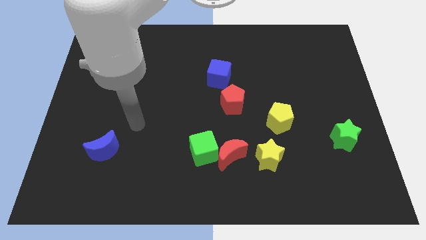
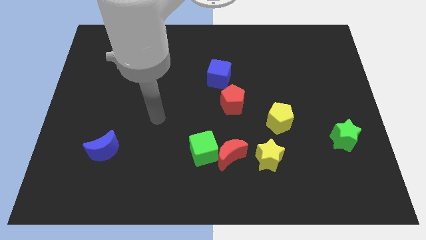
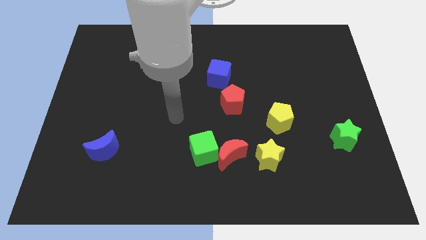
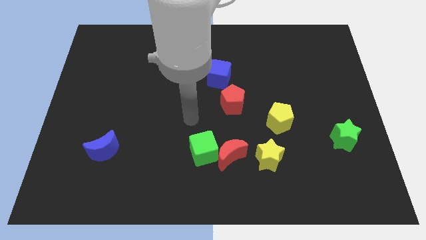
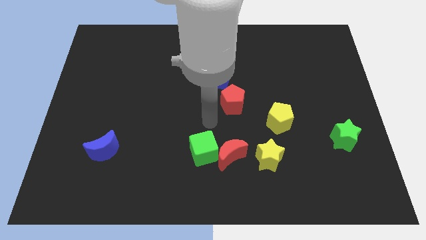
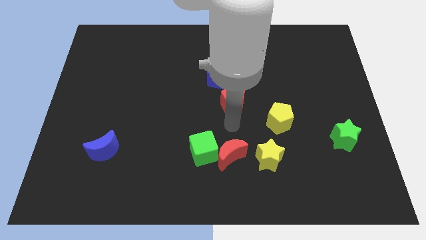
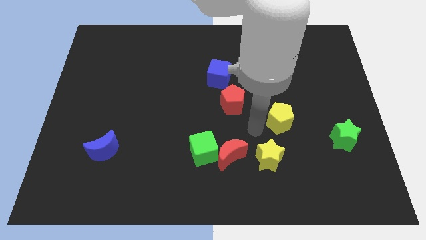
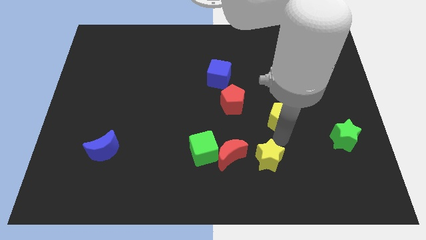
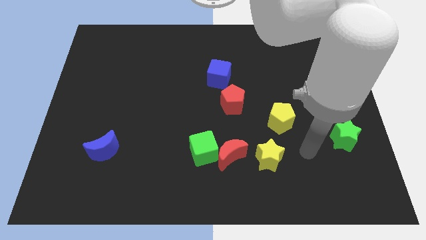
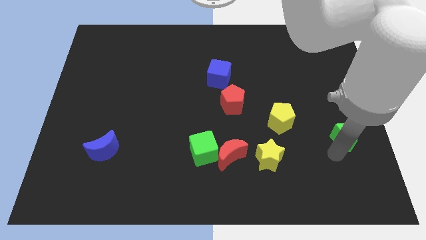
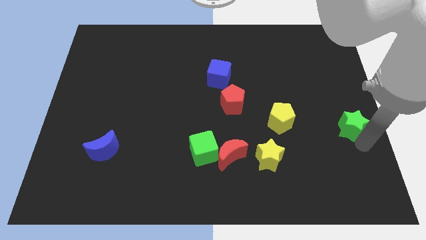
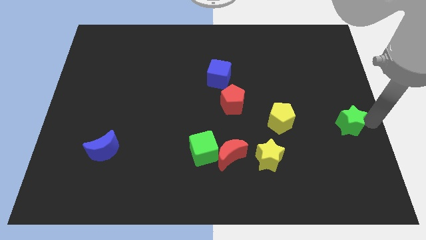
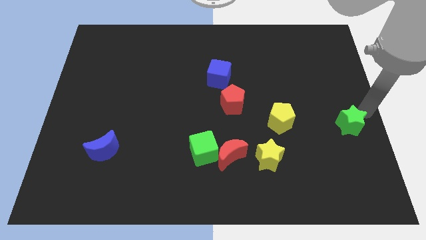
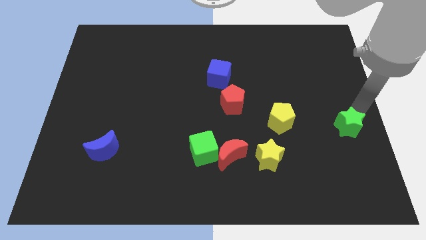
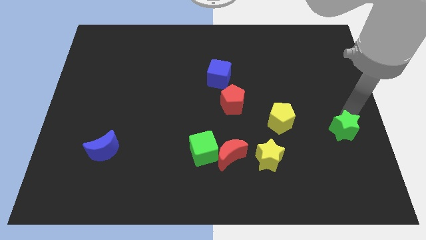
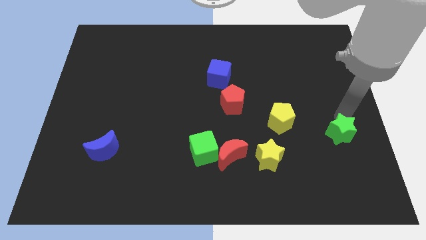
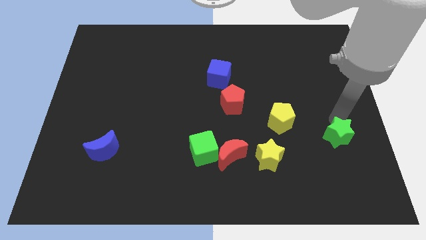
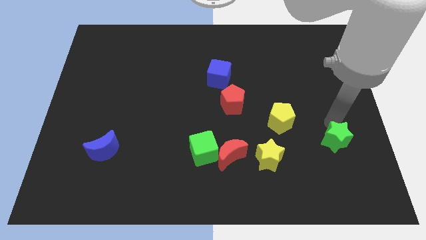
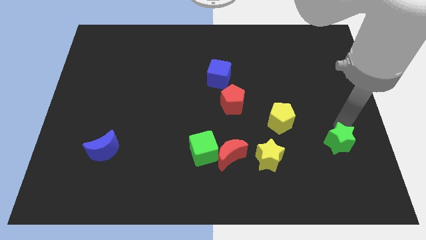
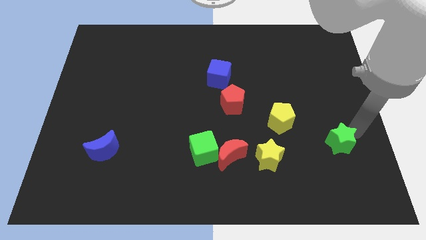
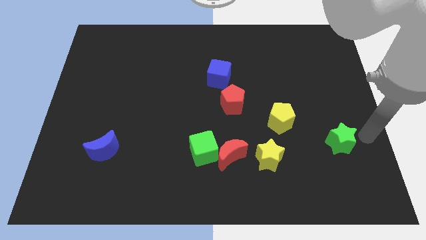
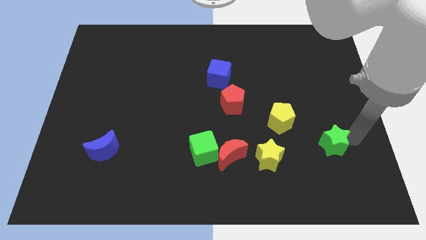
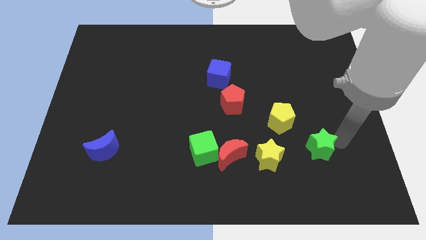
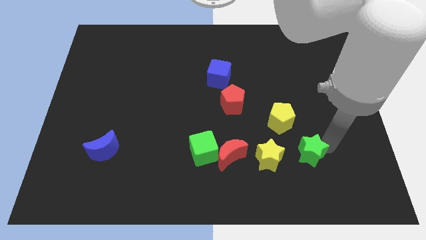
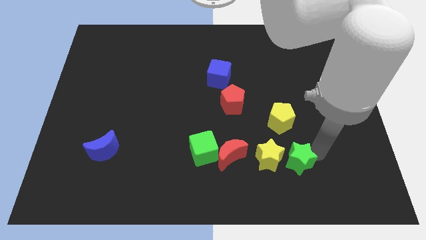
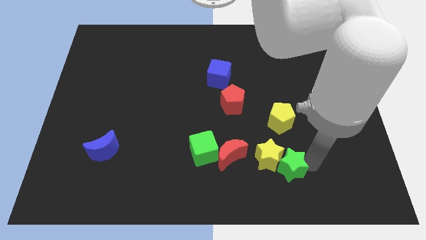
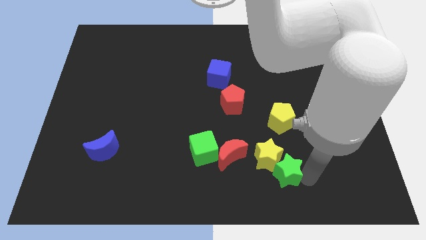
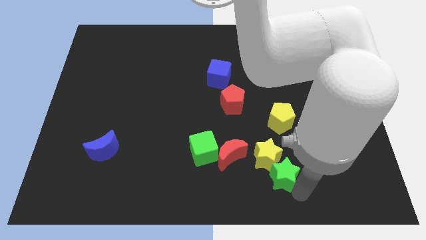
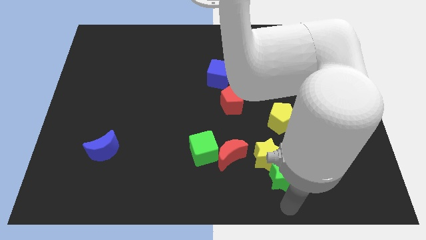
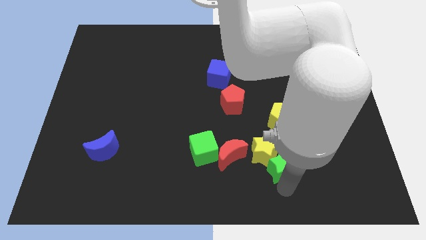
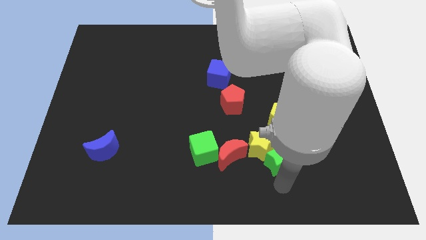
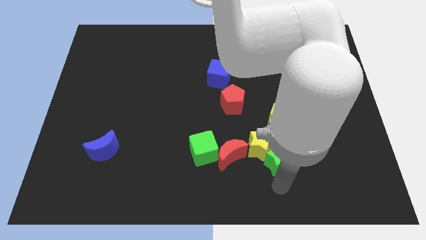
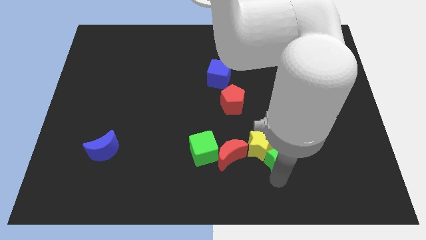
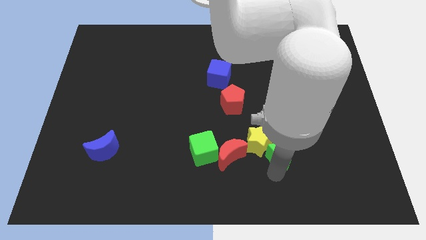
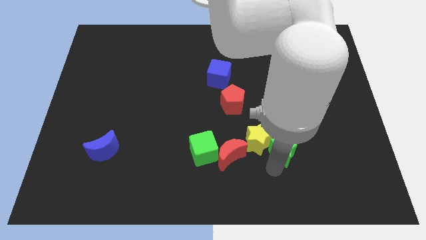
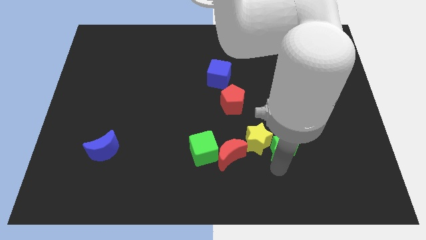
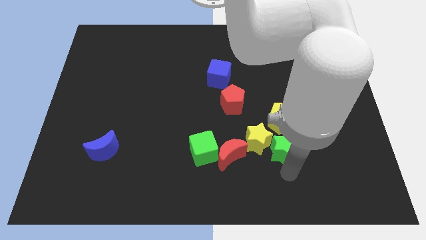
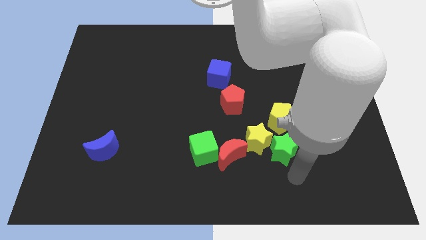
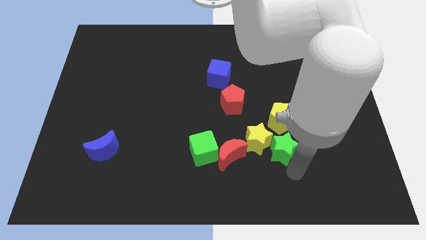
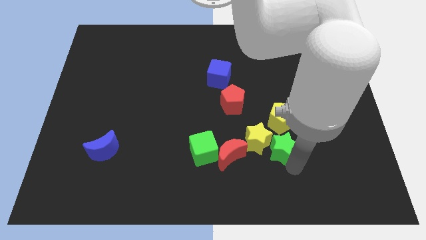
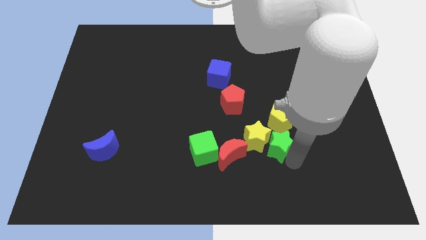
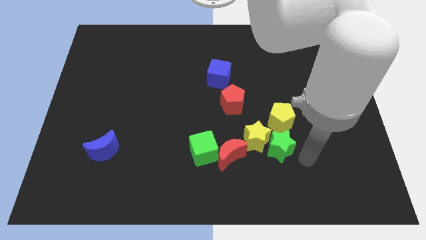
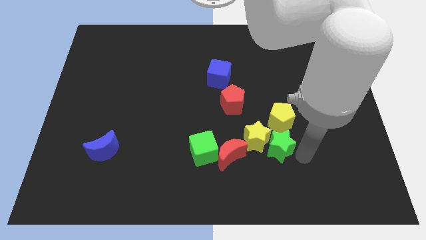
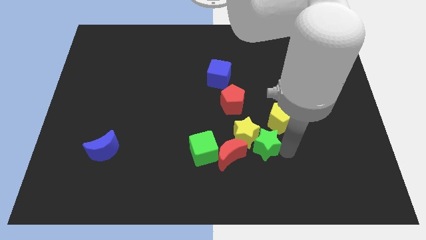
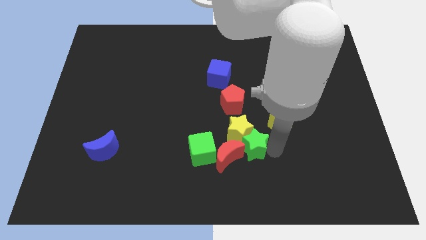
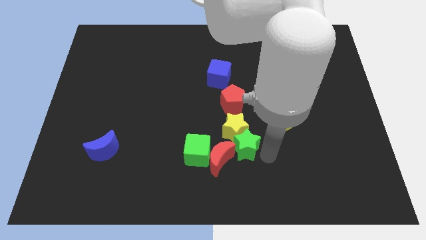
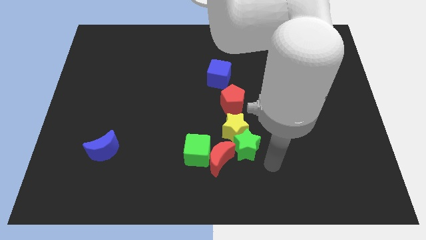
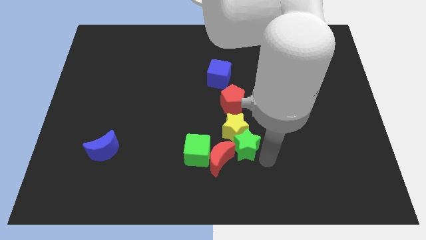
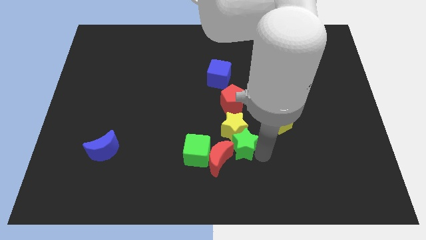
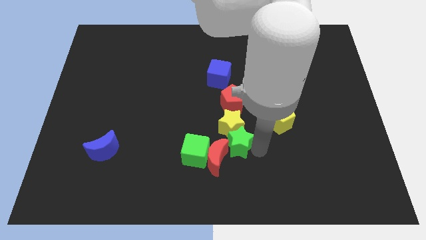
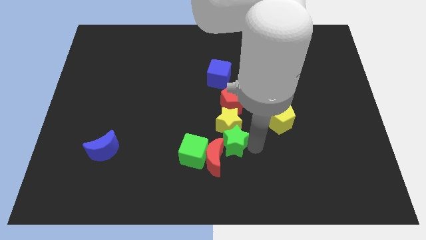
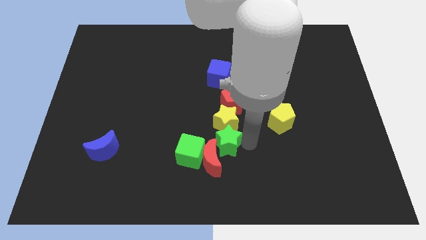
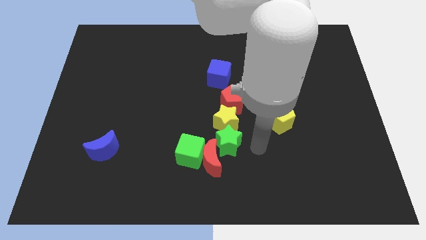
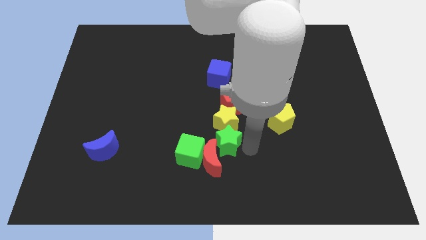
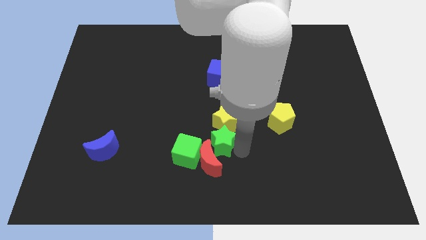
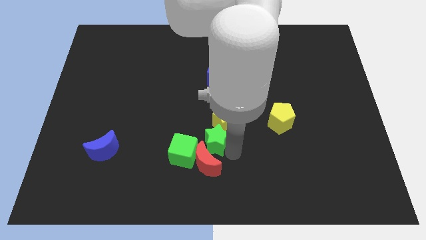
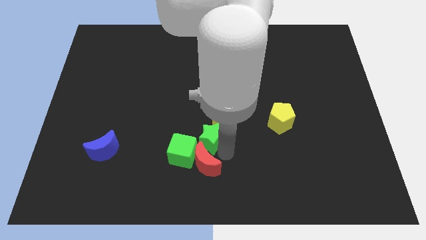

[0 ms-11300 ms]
push the green star to the top left of the red moon

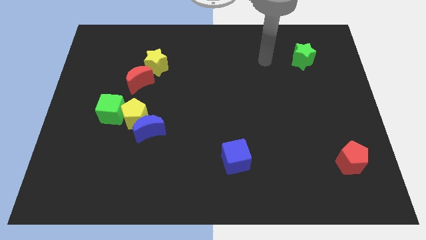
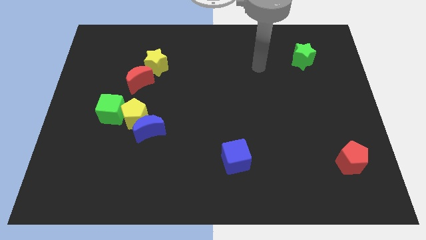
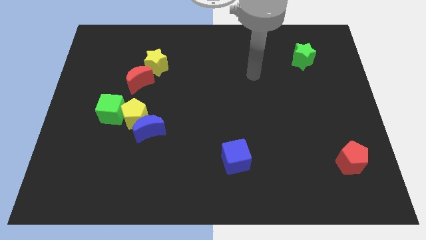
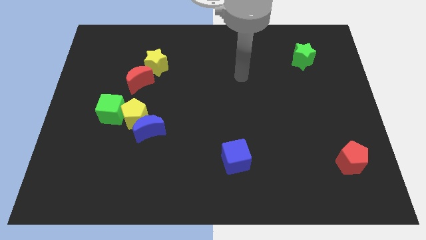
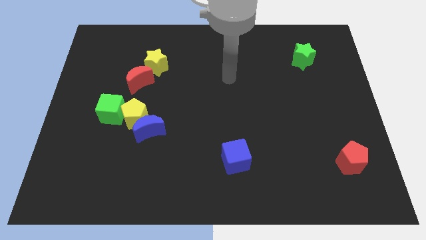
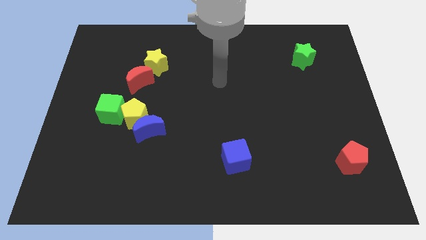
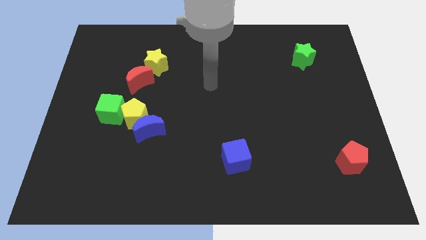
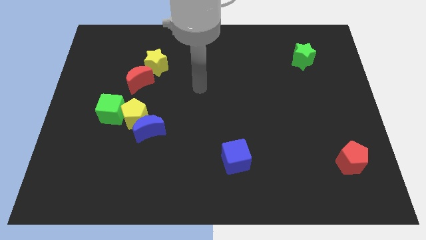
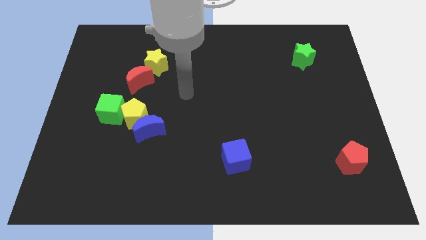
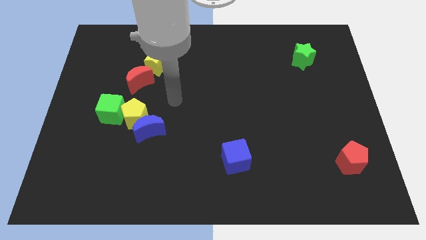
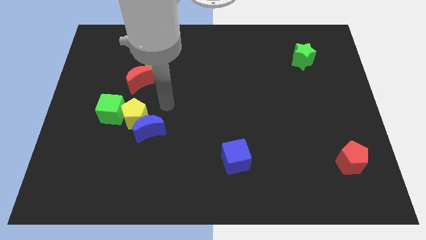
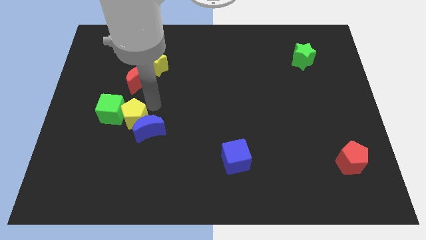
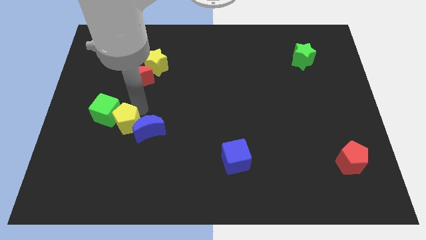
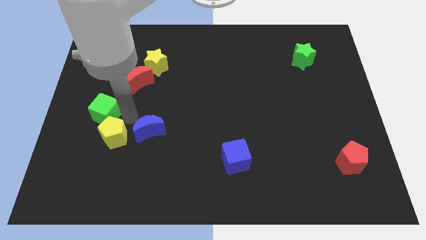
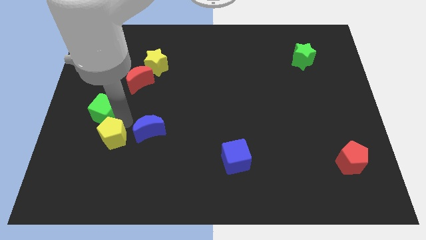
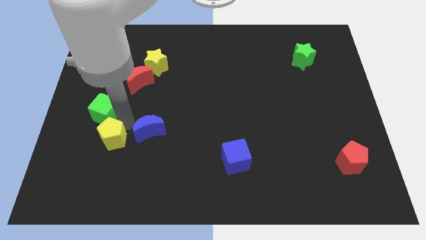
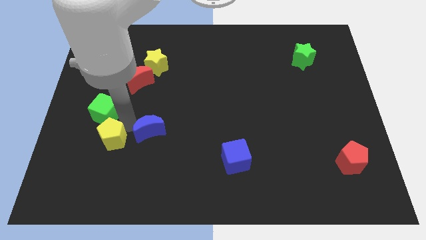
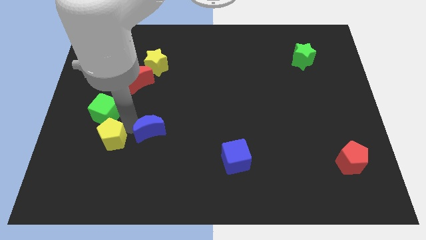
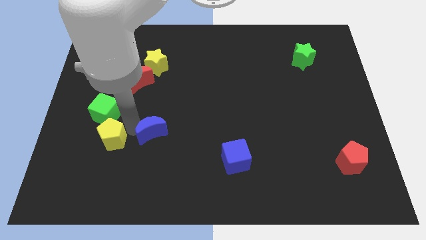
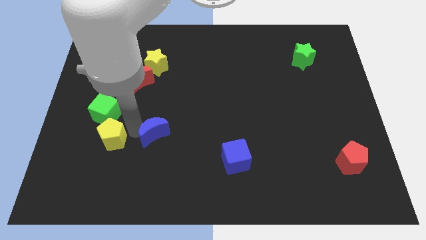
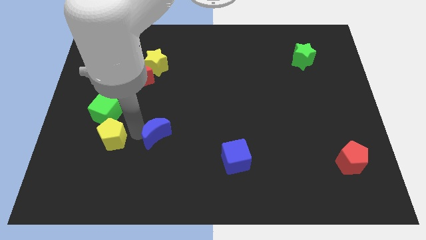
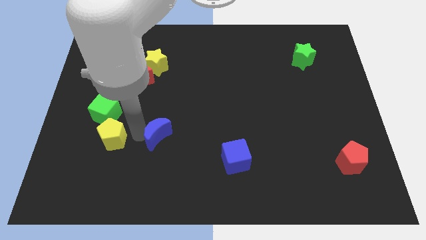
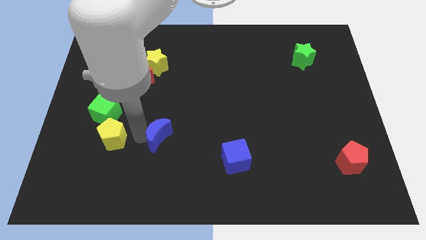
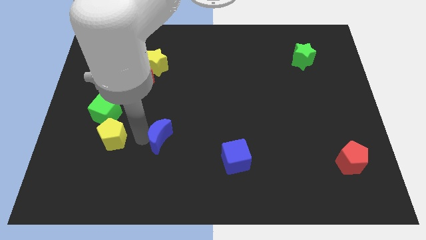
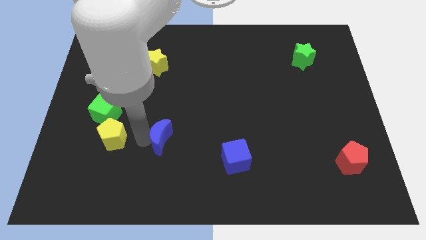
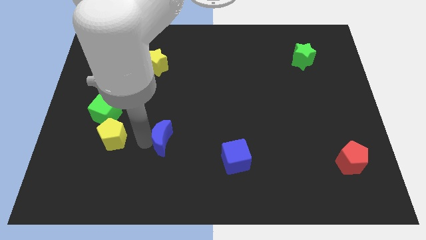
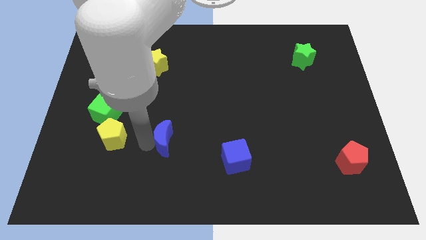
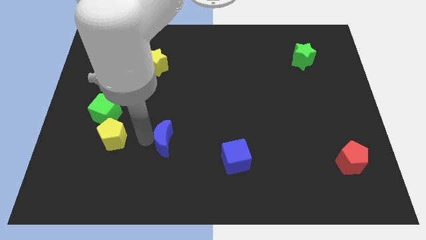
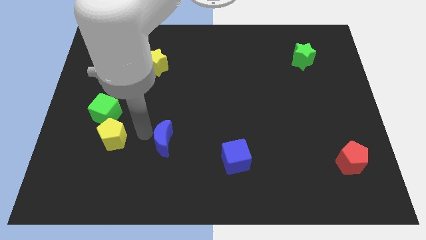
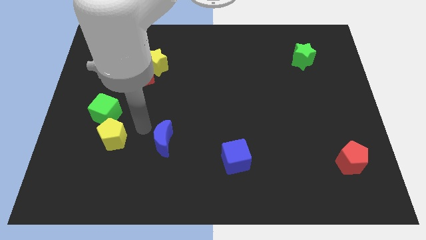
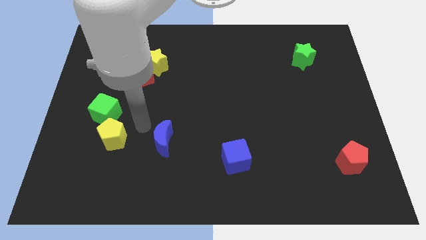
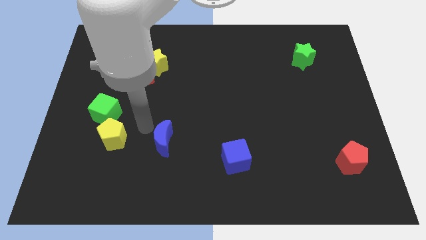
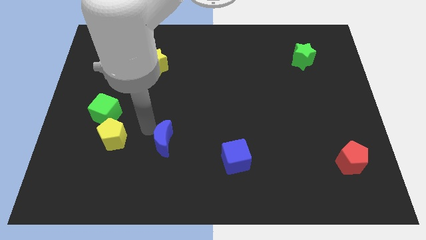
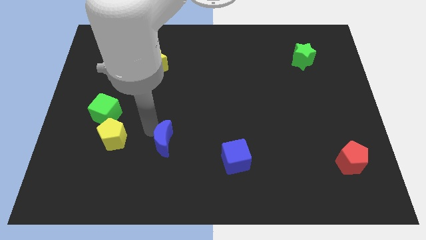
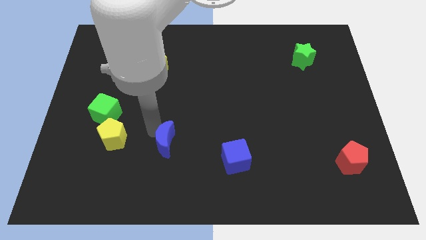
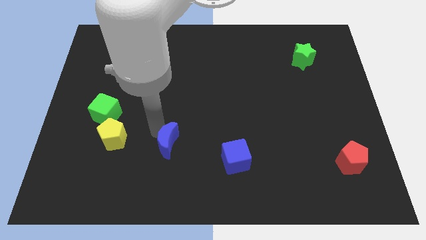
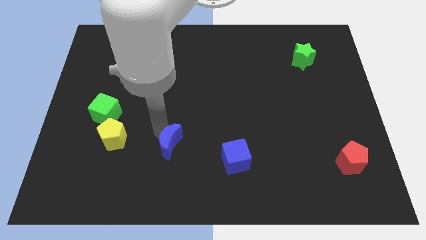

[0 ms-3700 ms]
slide the blue moon to the left side of the blue cube
